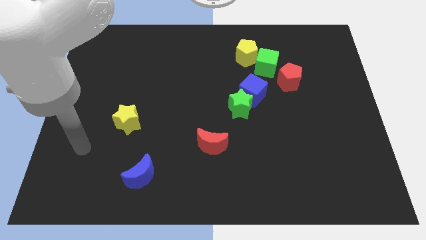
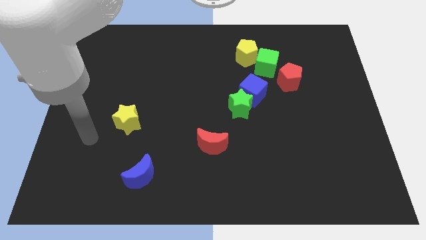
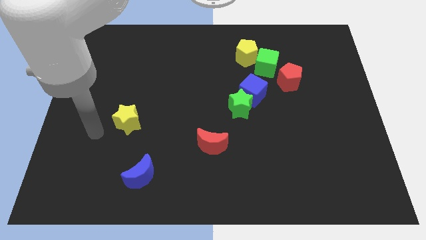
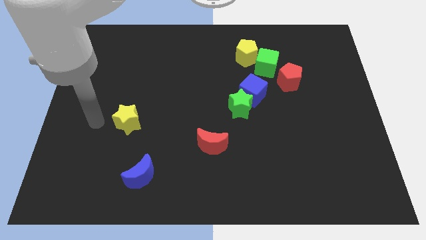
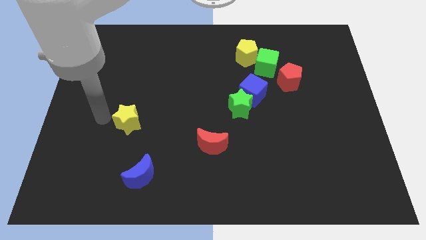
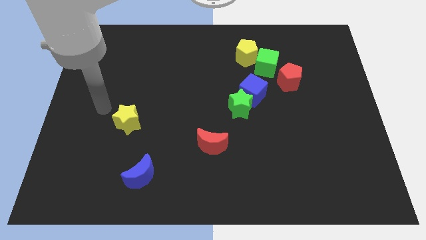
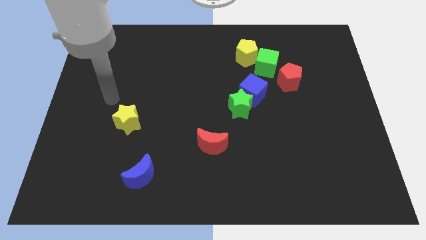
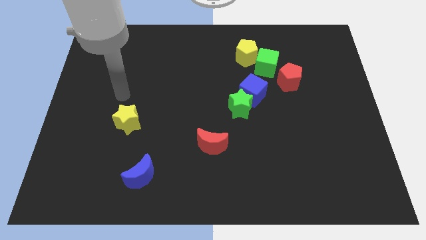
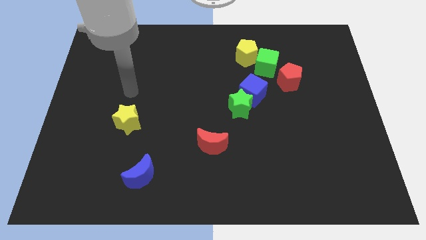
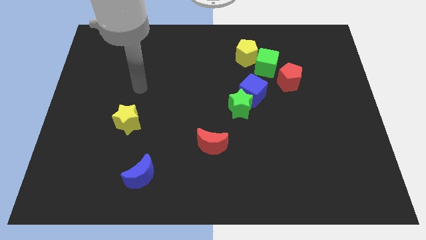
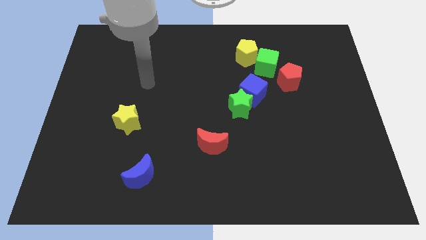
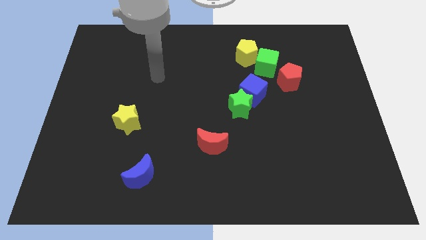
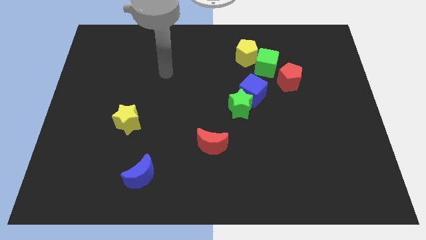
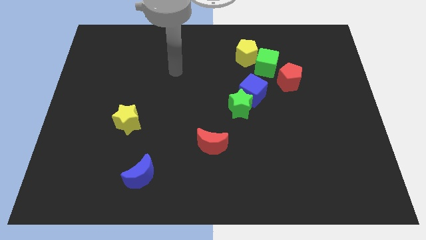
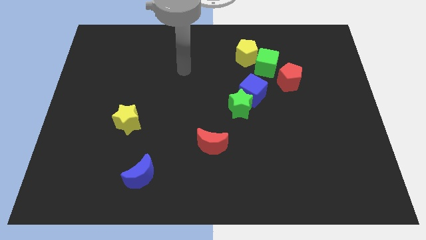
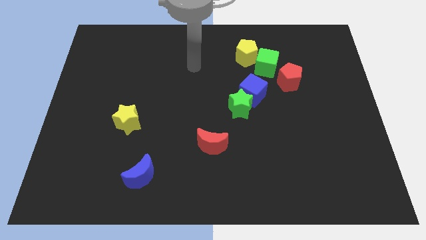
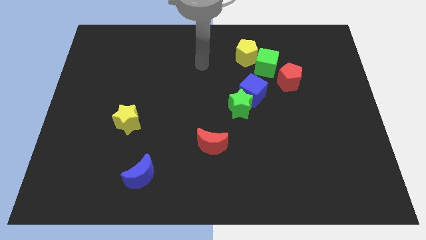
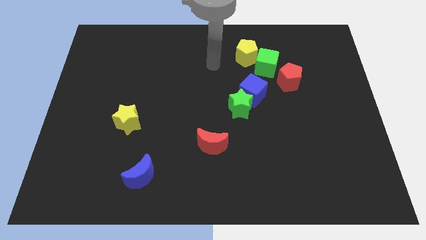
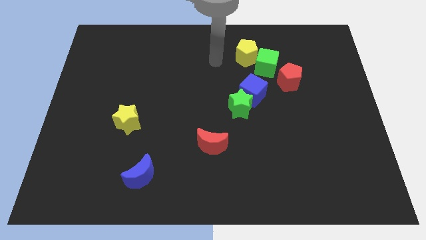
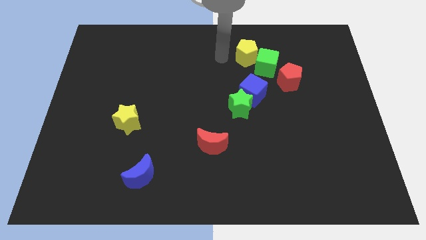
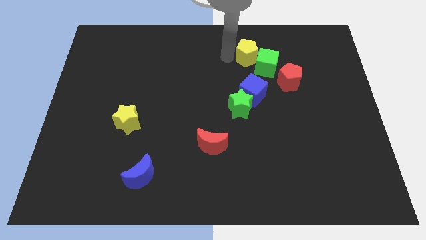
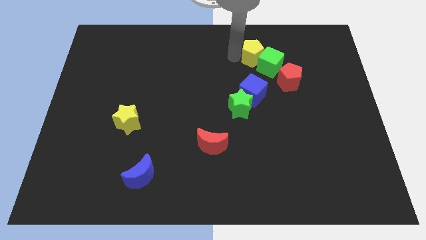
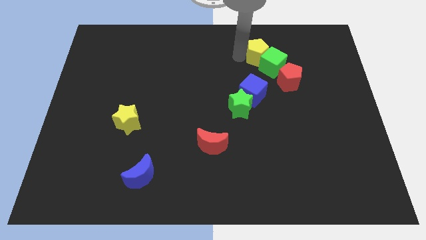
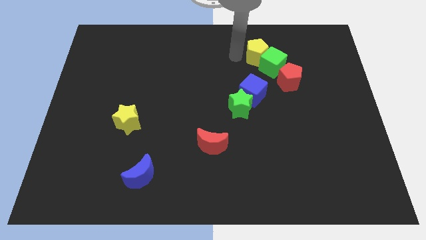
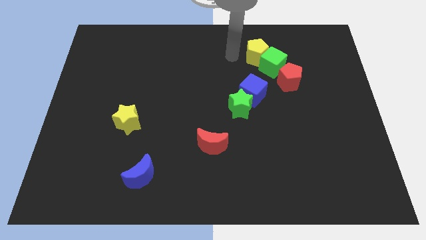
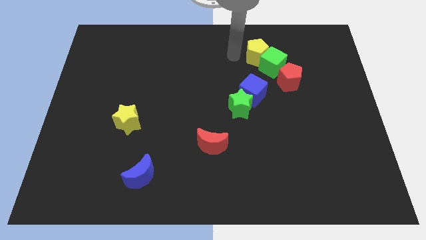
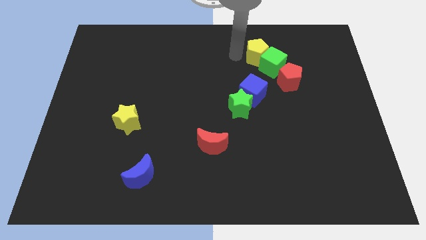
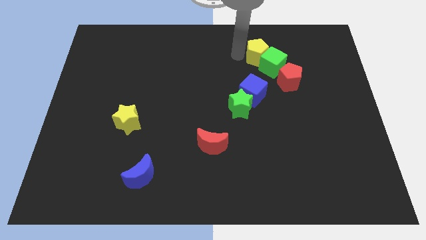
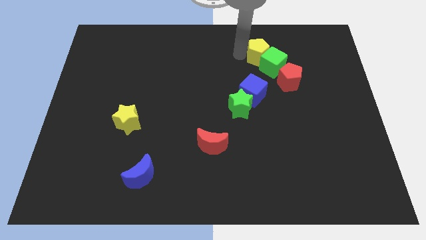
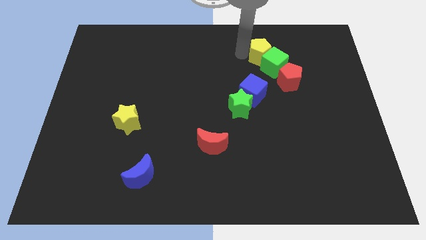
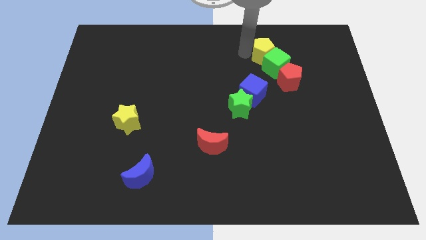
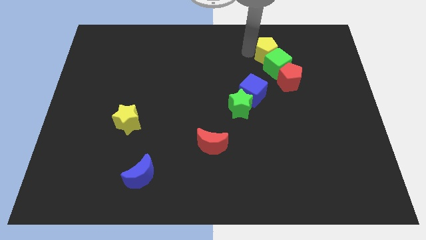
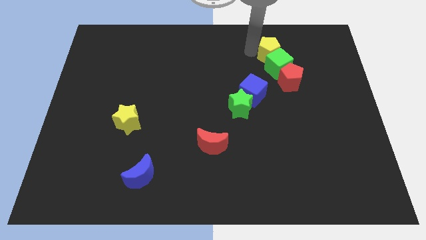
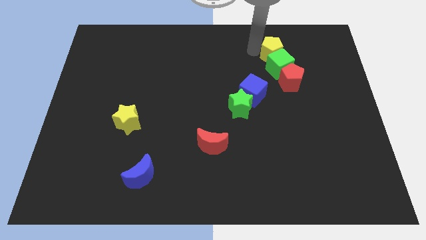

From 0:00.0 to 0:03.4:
push the yellow pentagon right a little bit

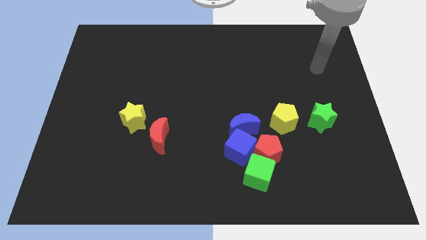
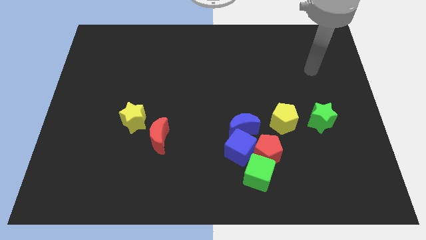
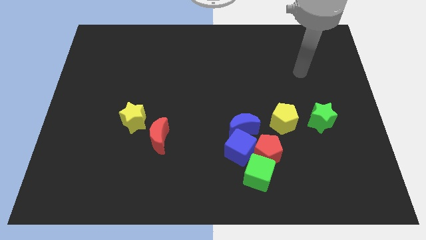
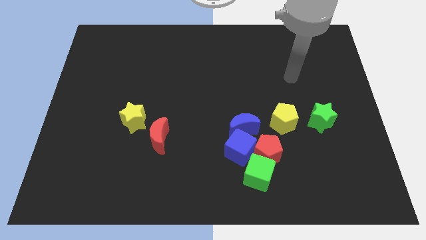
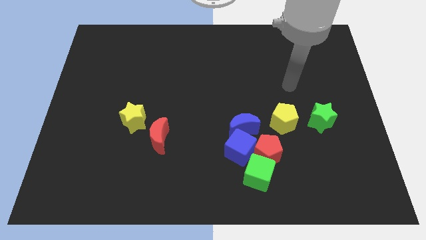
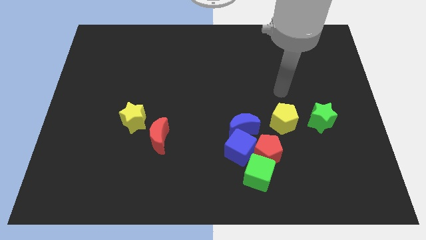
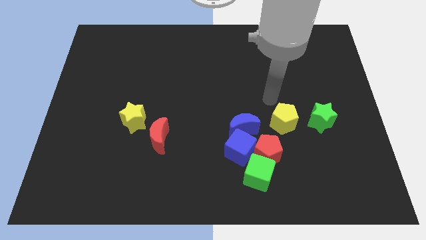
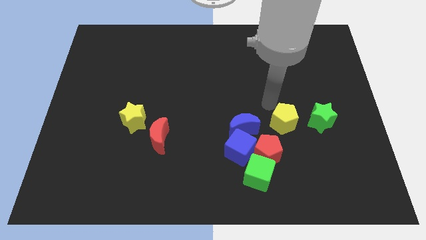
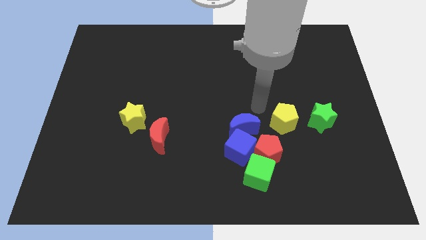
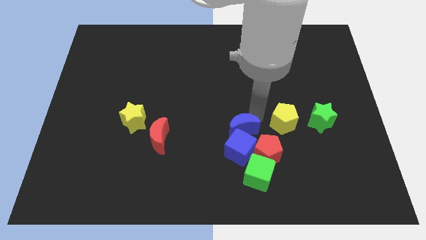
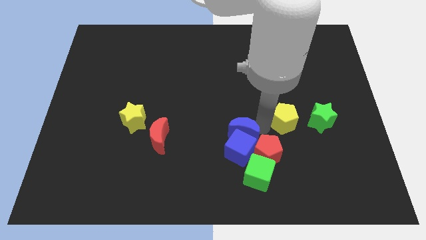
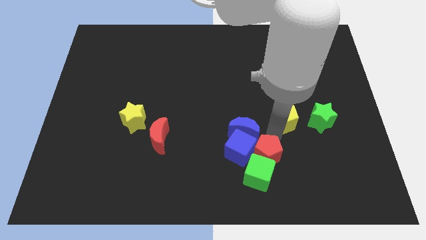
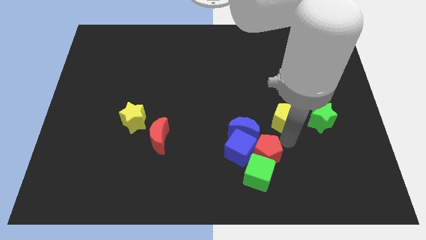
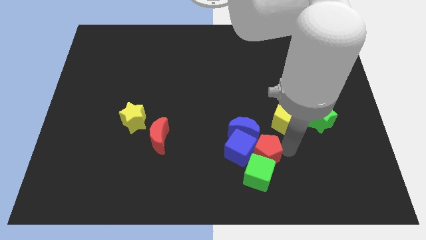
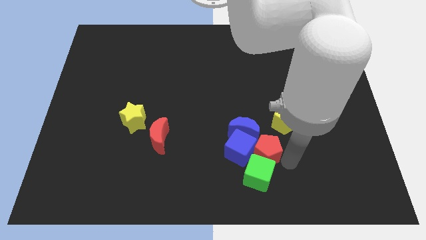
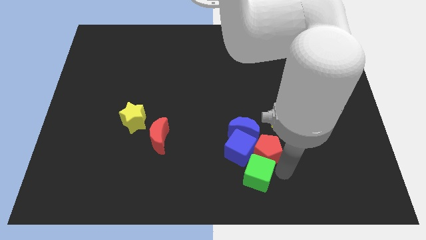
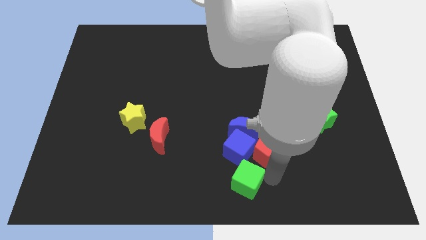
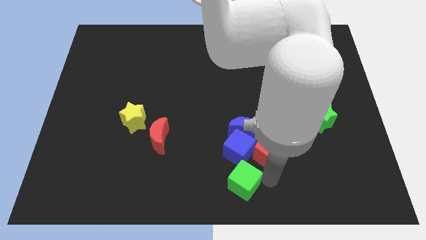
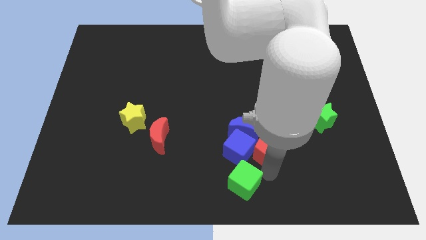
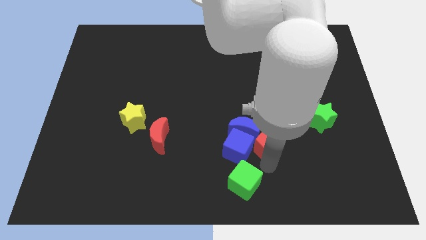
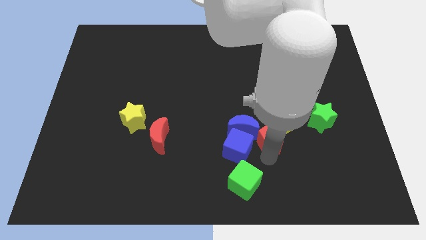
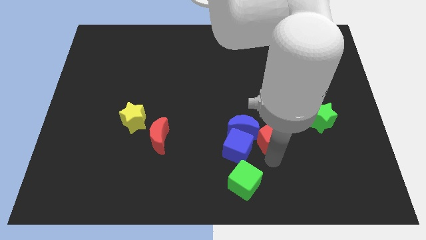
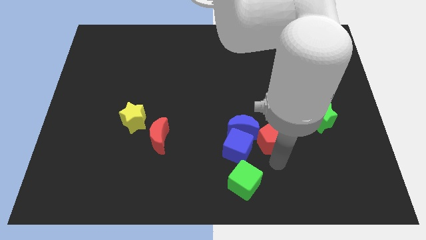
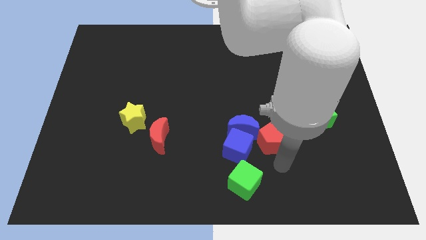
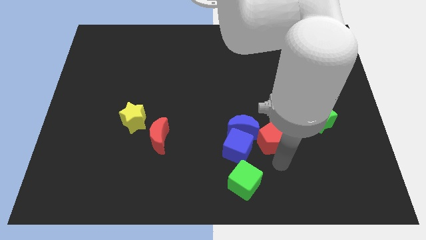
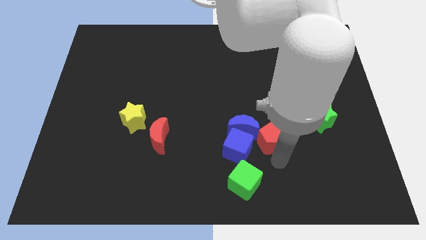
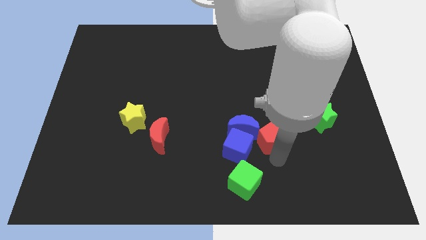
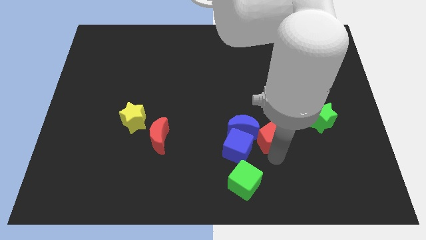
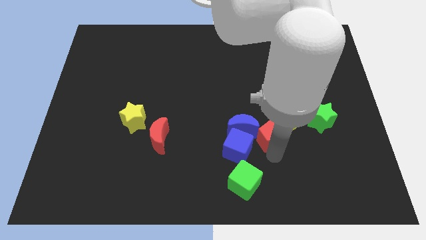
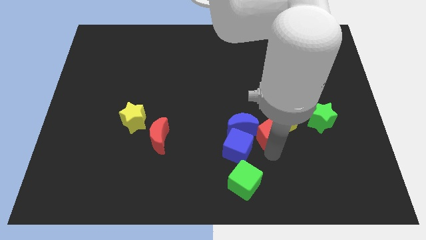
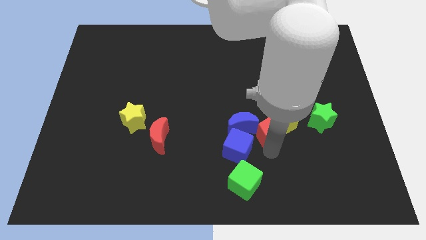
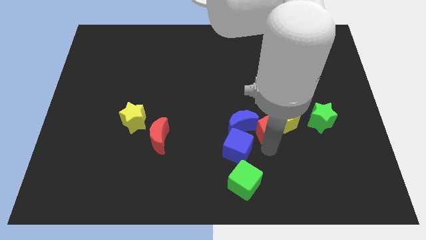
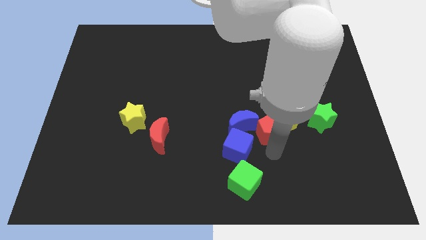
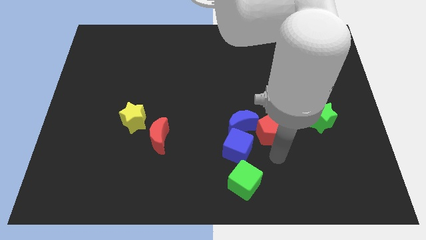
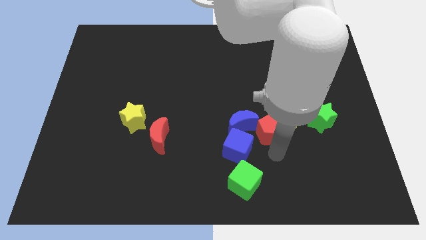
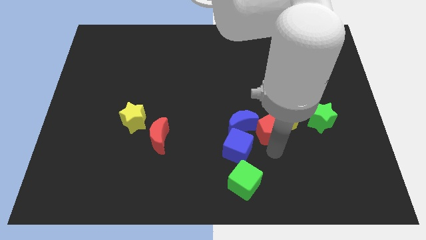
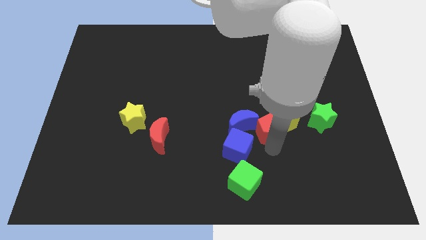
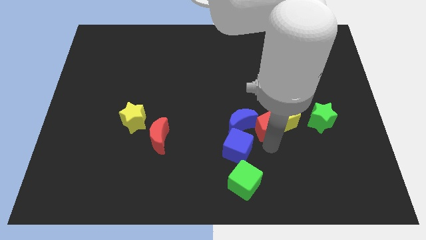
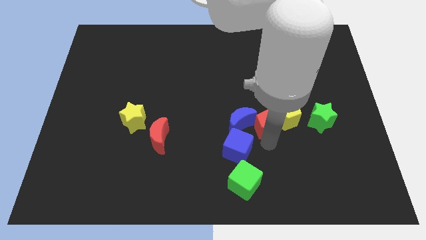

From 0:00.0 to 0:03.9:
slightly move the red pentagon upwards

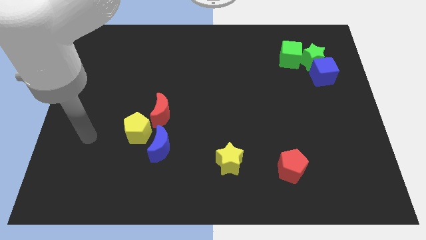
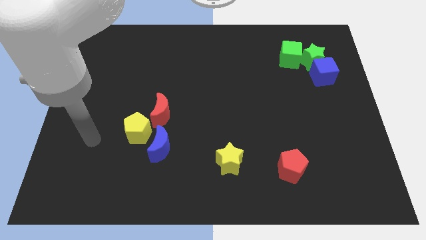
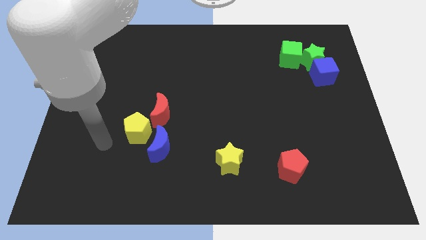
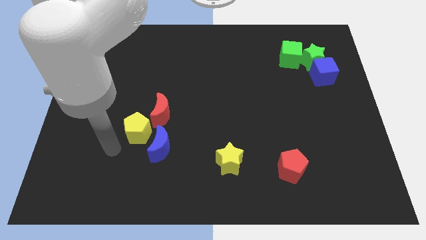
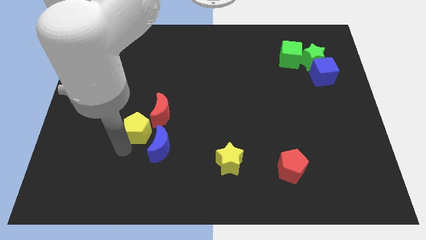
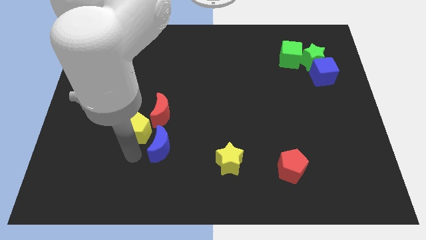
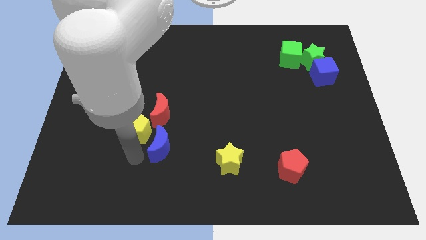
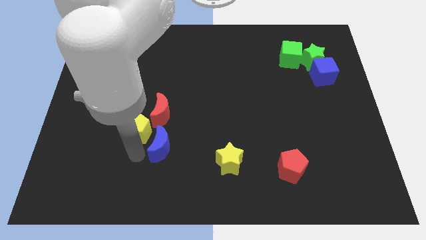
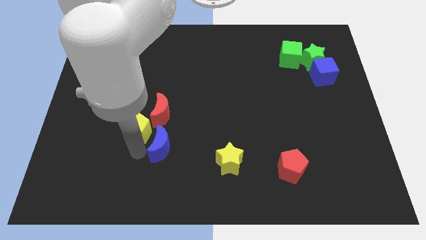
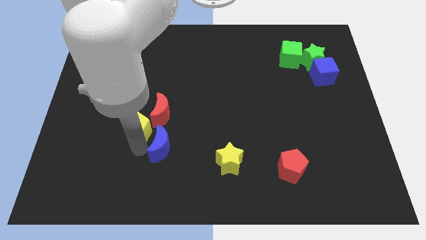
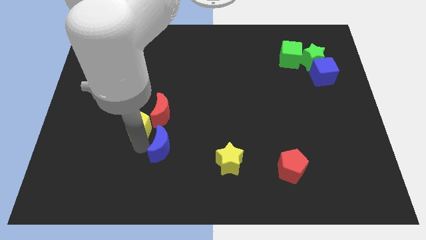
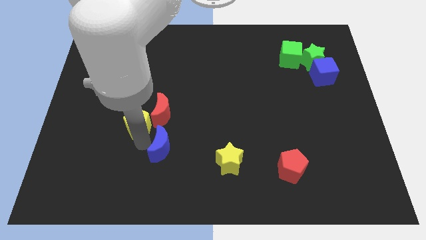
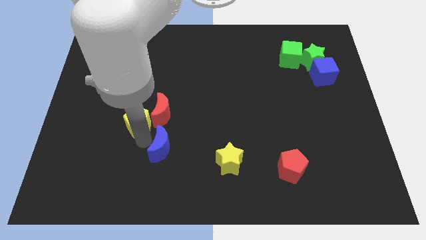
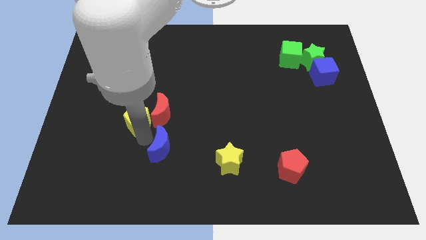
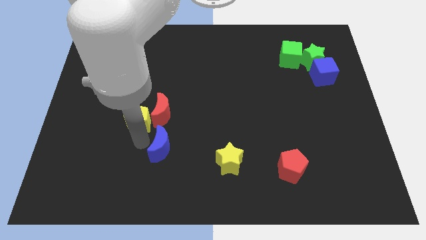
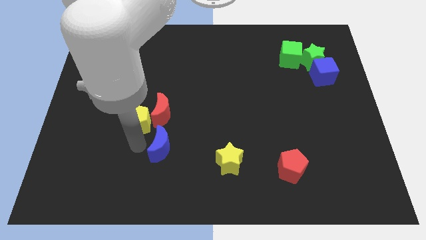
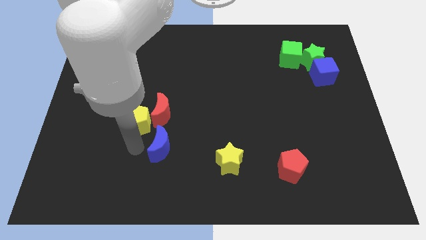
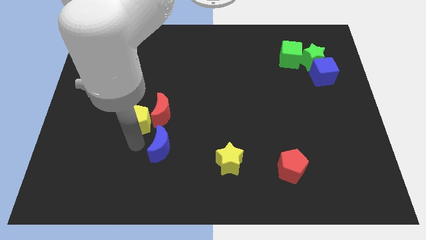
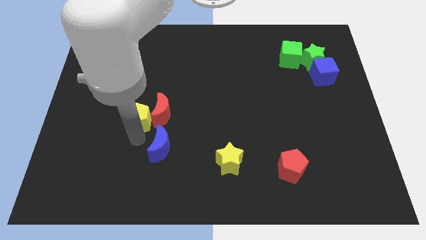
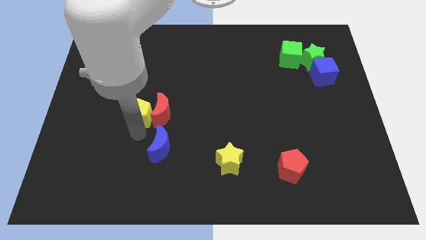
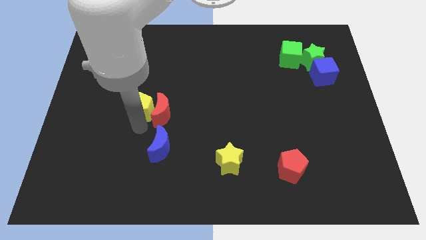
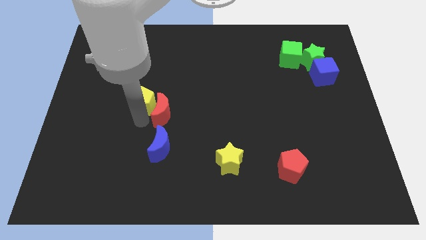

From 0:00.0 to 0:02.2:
slide the yellow pentagon somewhat up
